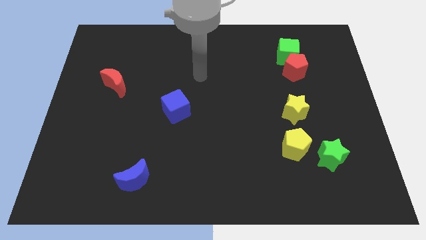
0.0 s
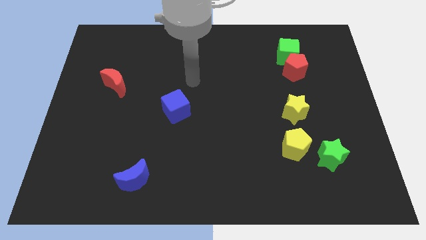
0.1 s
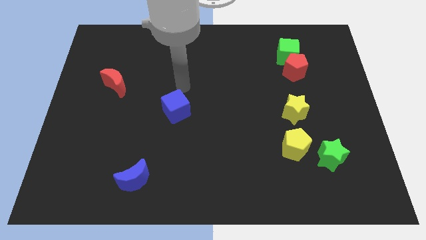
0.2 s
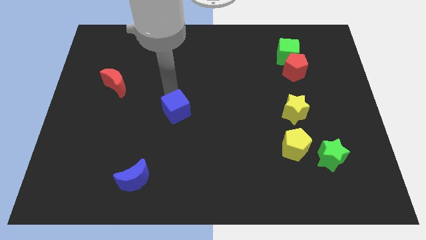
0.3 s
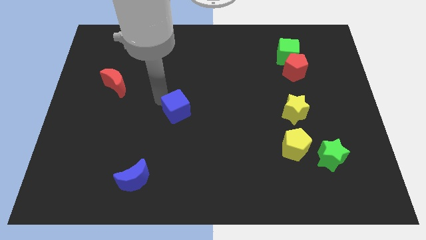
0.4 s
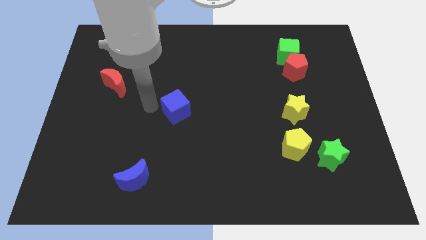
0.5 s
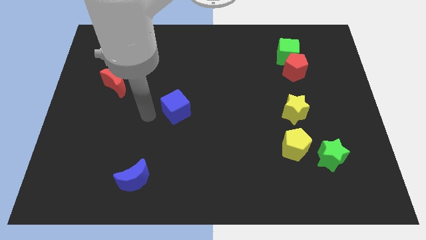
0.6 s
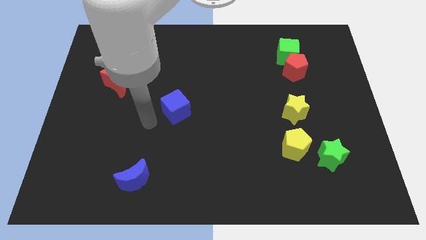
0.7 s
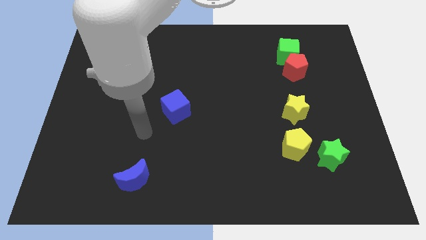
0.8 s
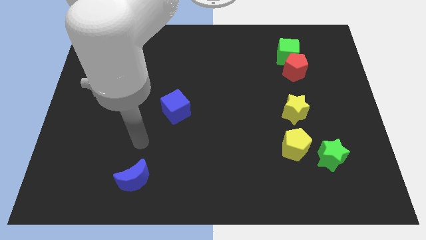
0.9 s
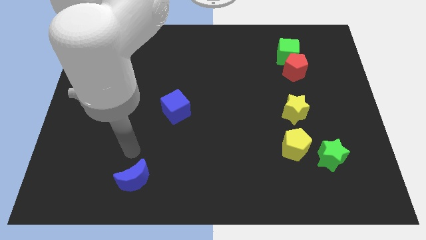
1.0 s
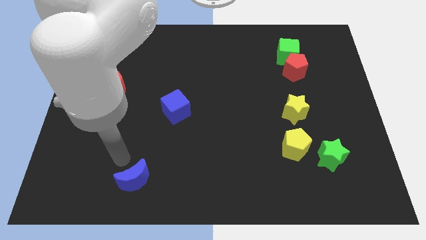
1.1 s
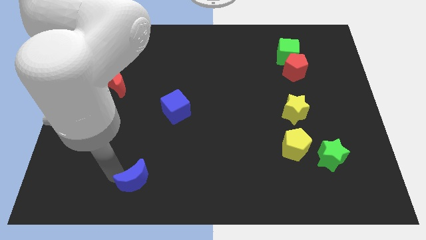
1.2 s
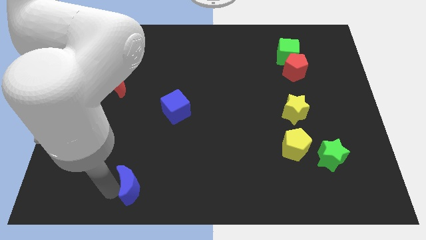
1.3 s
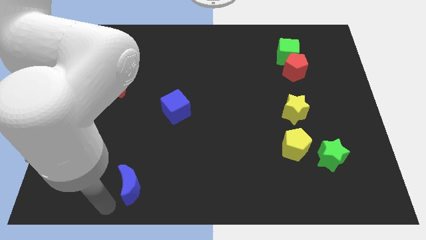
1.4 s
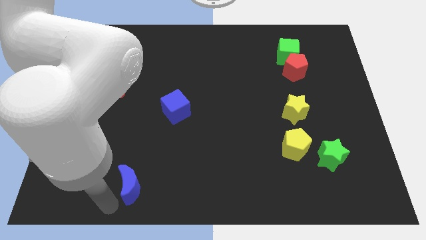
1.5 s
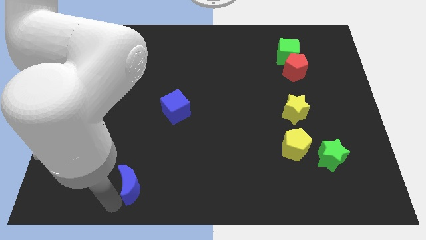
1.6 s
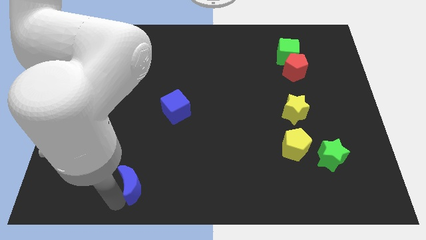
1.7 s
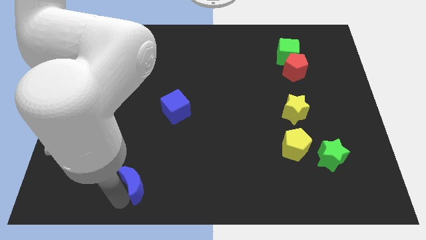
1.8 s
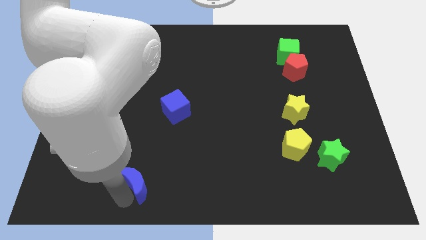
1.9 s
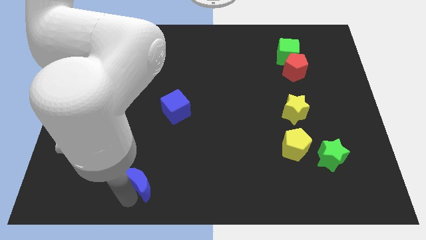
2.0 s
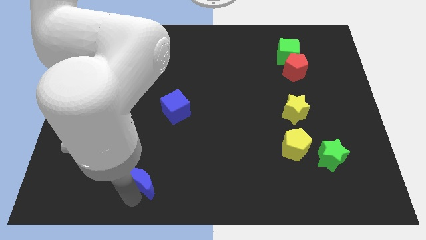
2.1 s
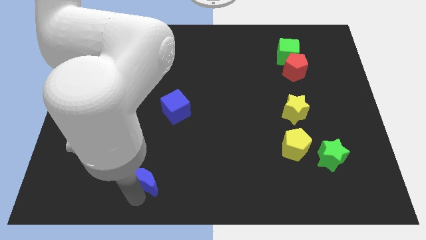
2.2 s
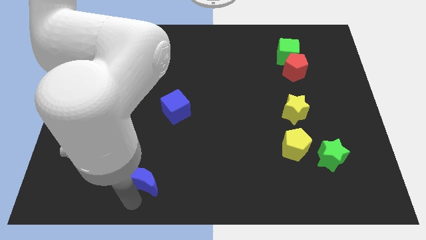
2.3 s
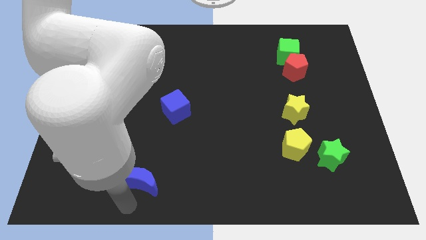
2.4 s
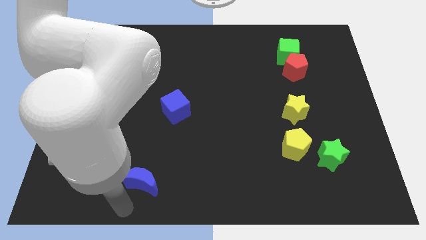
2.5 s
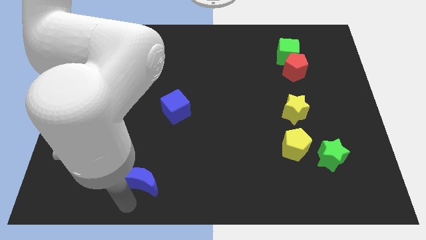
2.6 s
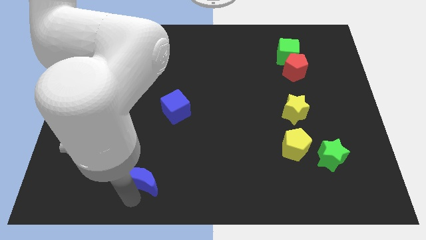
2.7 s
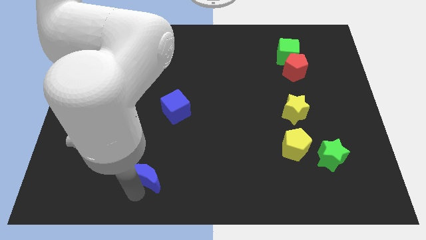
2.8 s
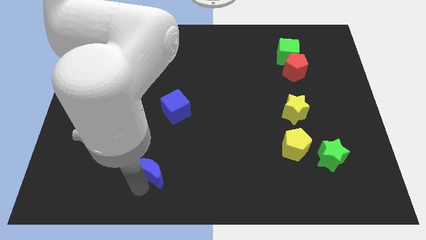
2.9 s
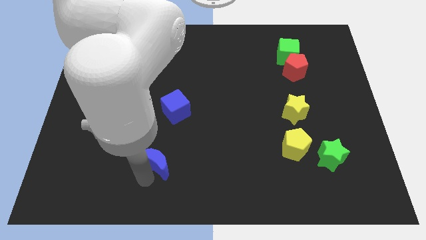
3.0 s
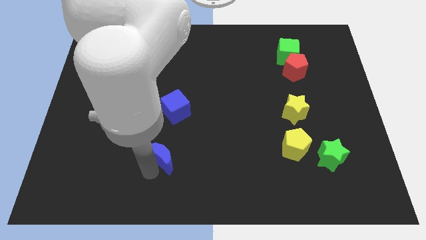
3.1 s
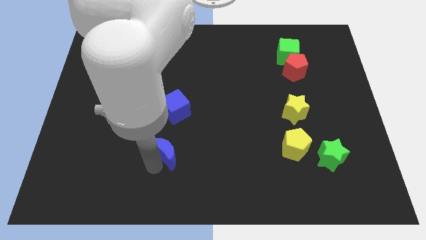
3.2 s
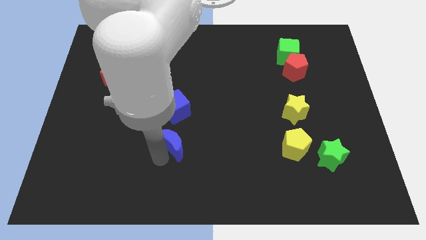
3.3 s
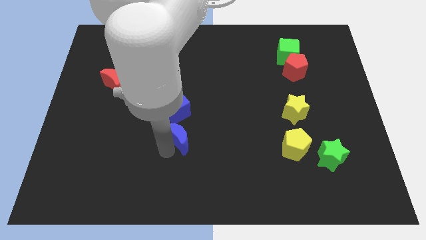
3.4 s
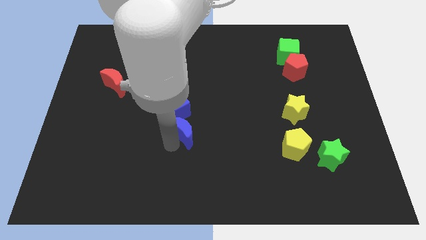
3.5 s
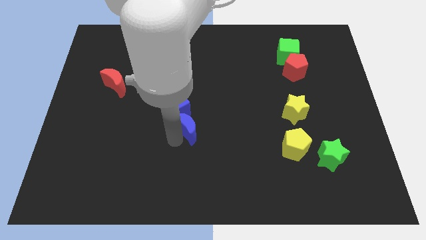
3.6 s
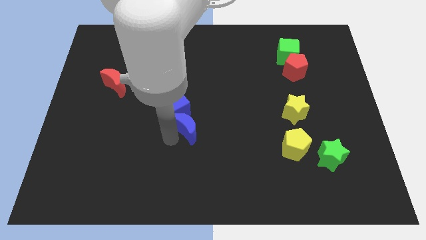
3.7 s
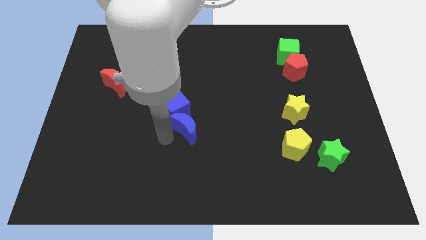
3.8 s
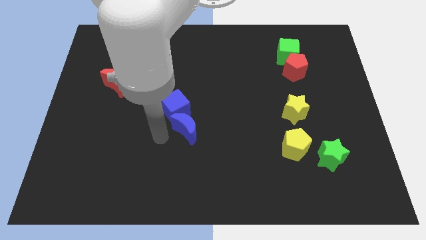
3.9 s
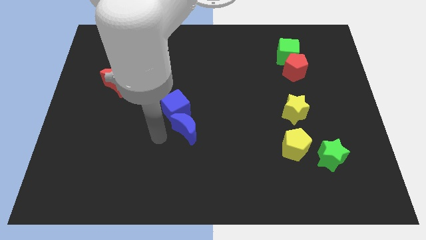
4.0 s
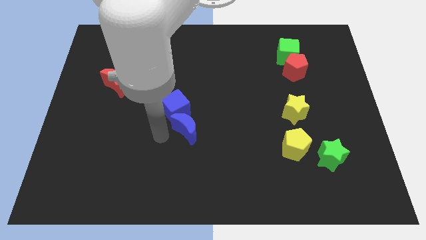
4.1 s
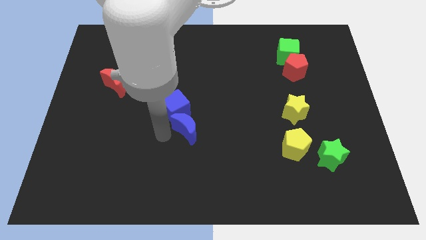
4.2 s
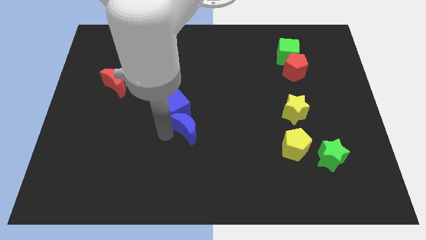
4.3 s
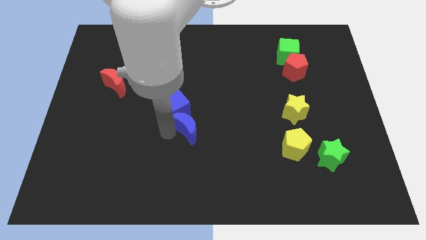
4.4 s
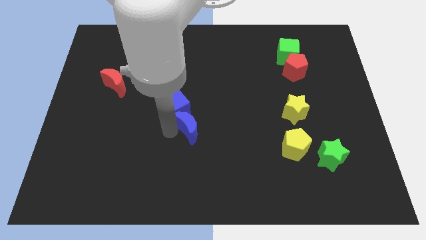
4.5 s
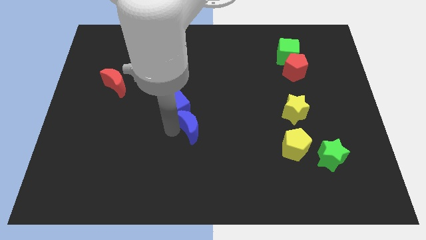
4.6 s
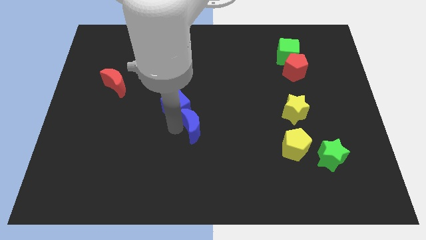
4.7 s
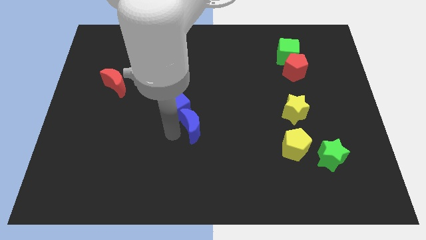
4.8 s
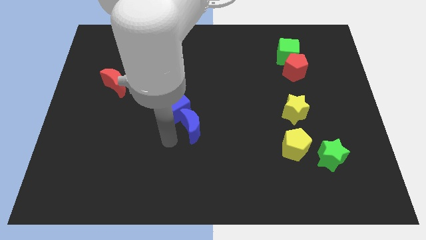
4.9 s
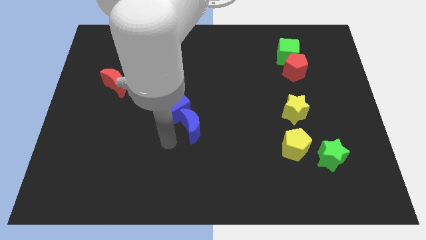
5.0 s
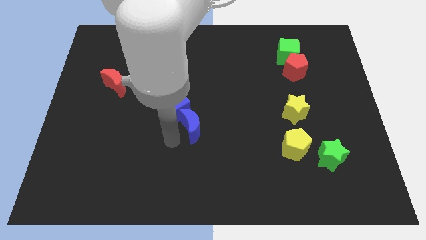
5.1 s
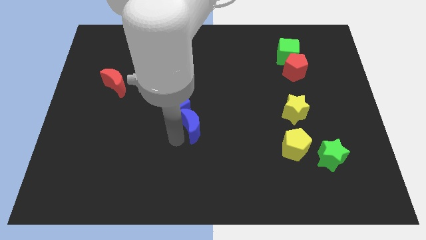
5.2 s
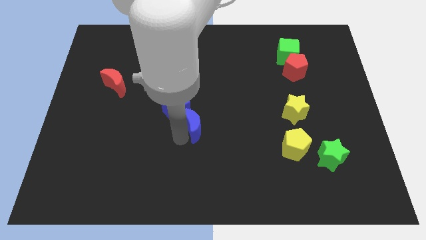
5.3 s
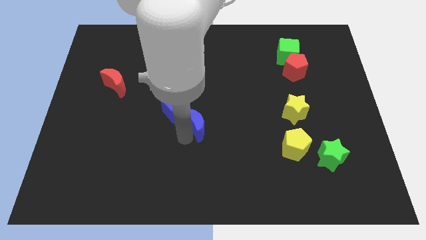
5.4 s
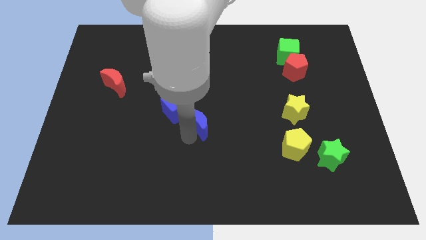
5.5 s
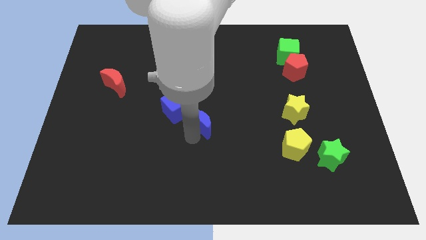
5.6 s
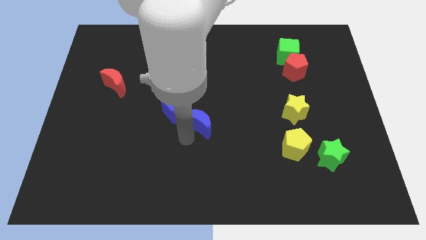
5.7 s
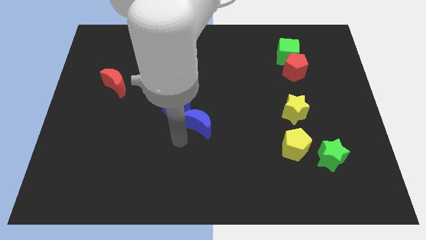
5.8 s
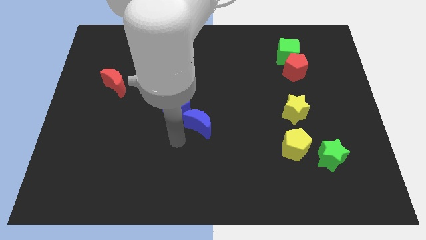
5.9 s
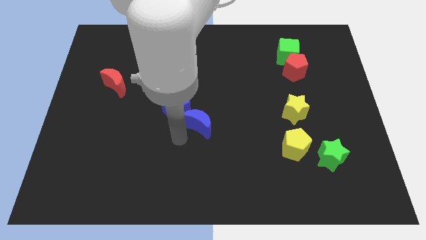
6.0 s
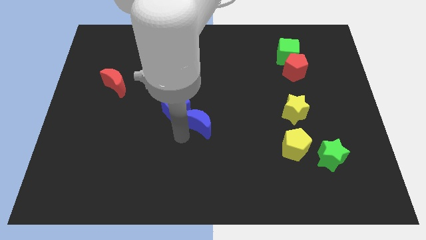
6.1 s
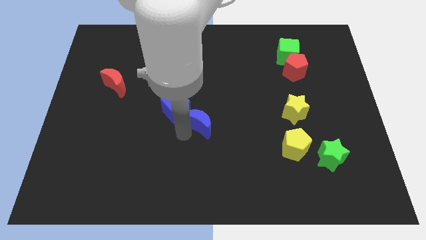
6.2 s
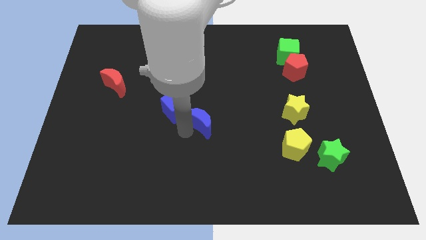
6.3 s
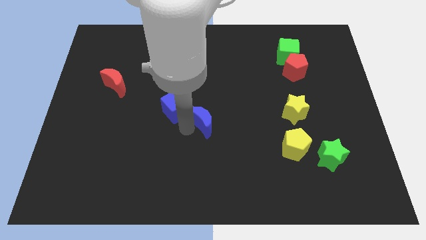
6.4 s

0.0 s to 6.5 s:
move the blue moon diagonally up and right

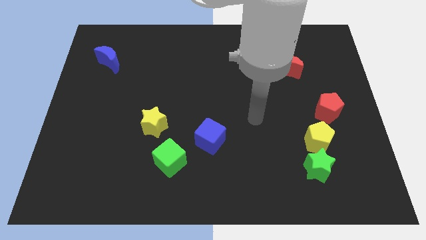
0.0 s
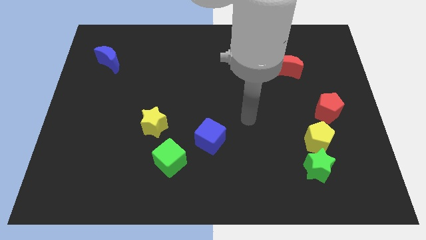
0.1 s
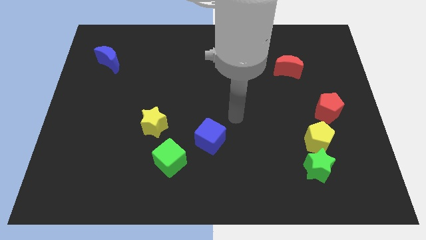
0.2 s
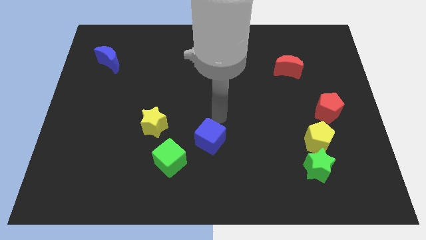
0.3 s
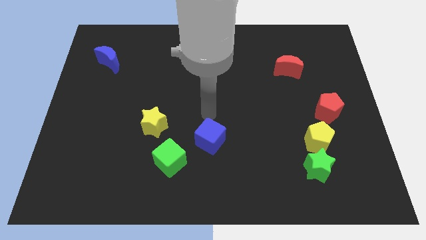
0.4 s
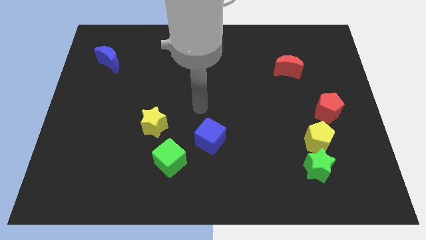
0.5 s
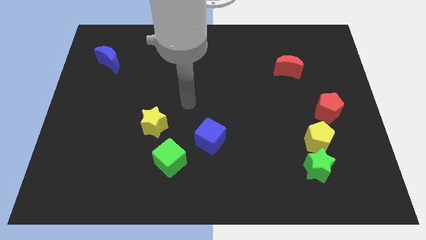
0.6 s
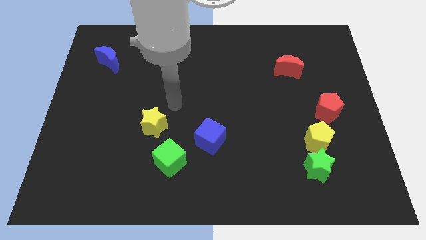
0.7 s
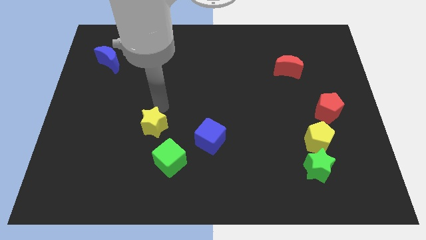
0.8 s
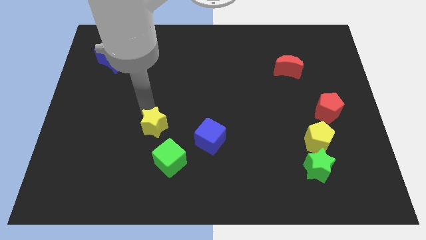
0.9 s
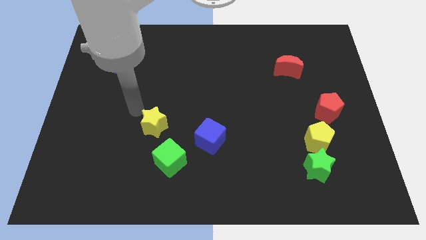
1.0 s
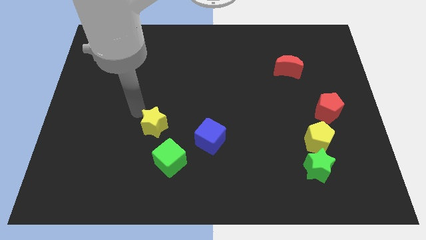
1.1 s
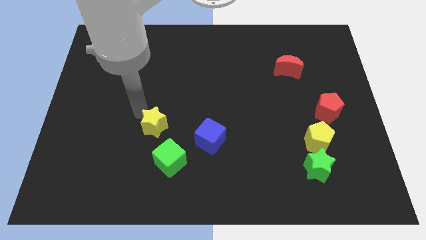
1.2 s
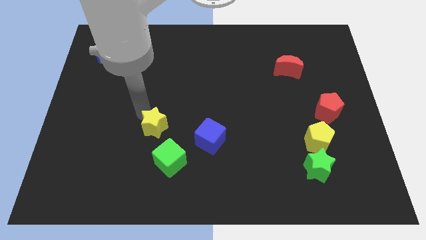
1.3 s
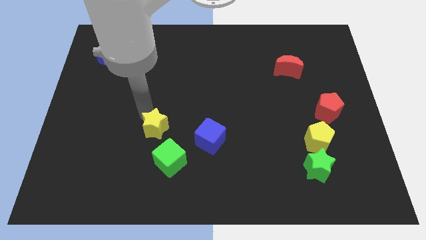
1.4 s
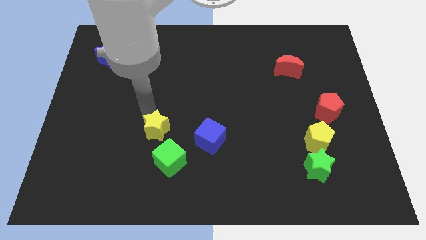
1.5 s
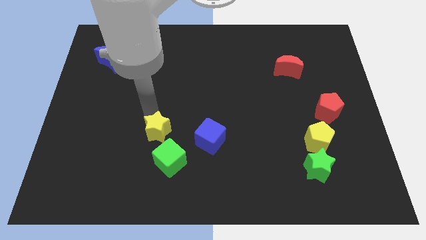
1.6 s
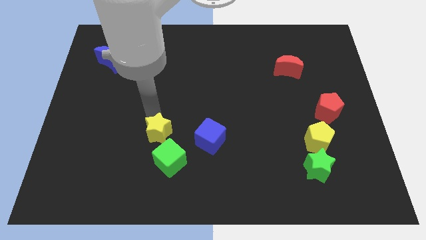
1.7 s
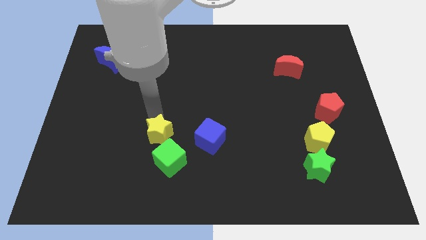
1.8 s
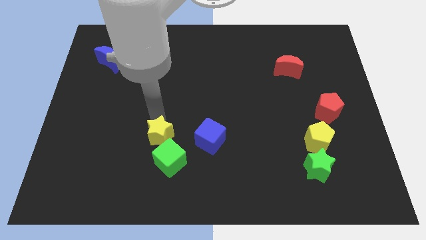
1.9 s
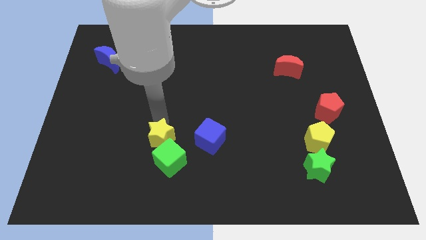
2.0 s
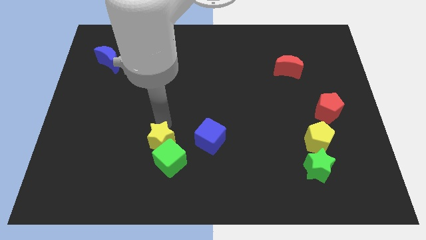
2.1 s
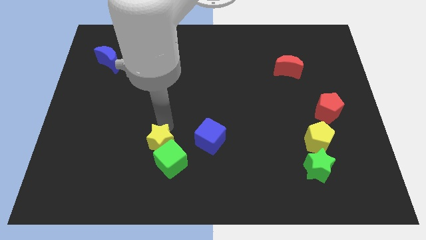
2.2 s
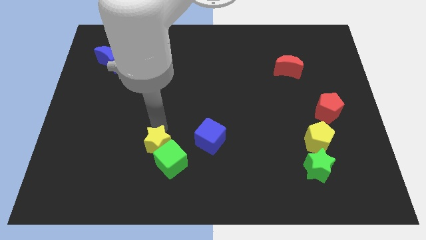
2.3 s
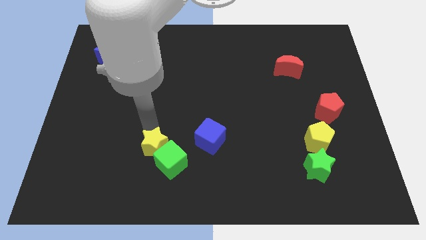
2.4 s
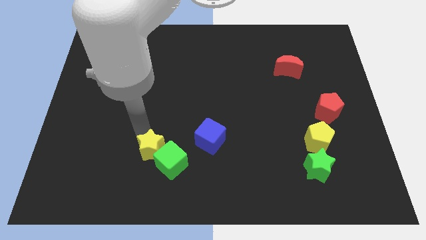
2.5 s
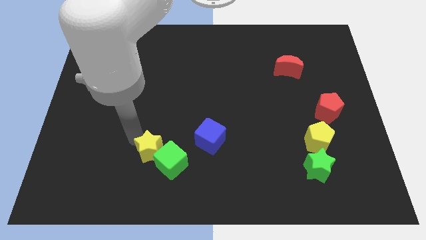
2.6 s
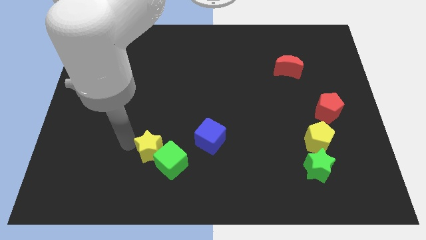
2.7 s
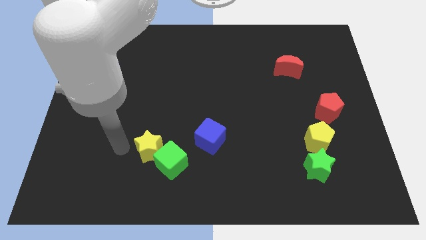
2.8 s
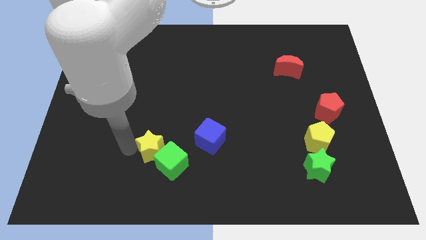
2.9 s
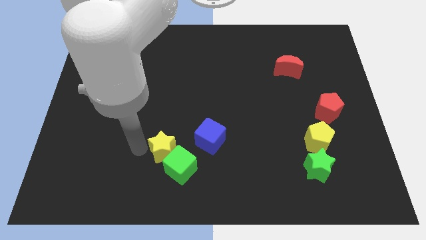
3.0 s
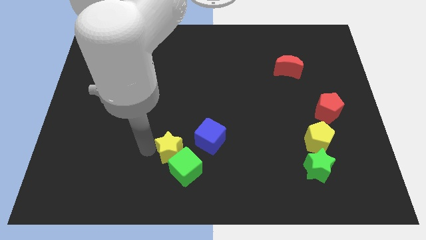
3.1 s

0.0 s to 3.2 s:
move the yellow star slightly down and then to the right
